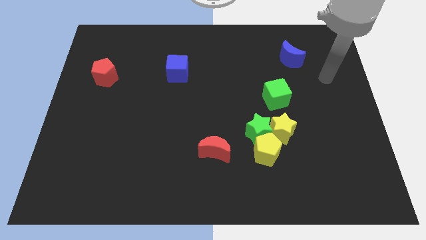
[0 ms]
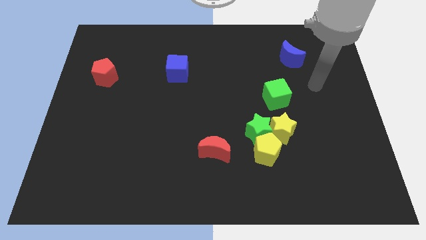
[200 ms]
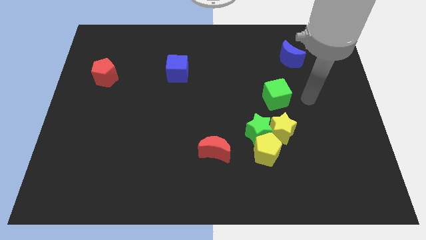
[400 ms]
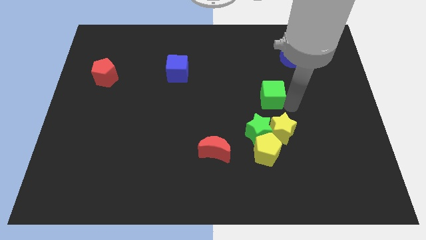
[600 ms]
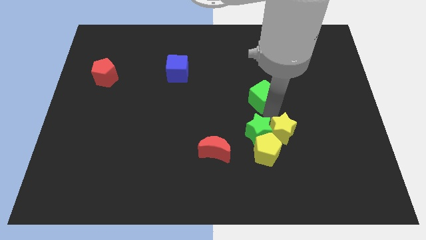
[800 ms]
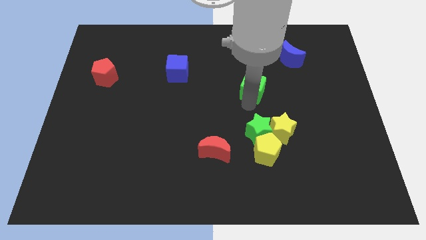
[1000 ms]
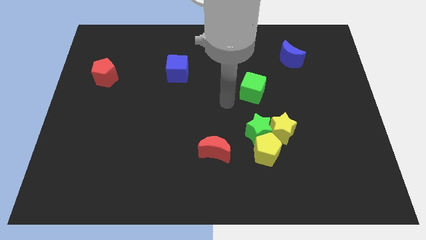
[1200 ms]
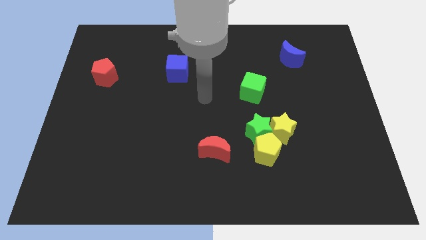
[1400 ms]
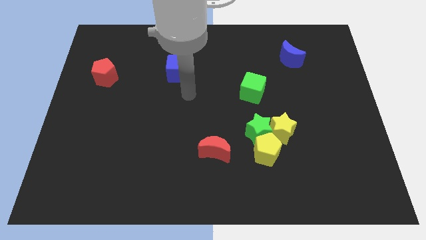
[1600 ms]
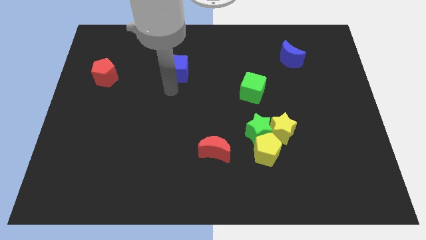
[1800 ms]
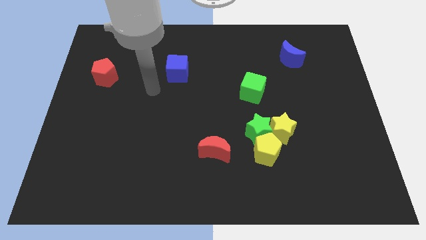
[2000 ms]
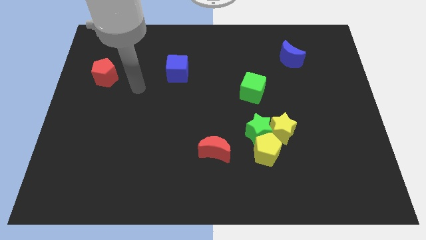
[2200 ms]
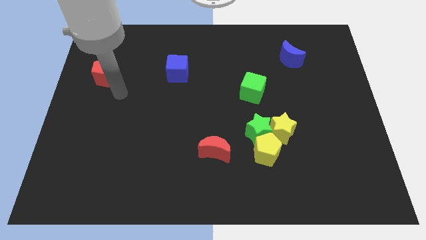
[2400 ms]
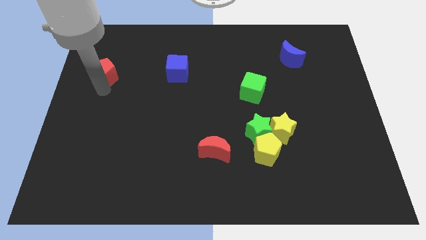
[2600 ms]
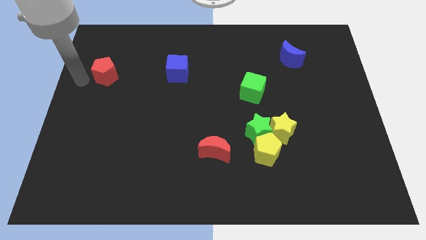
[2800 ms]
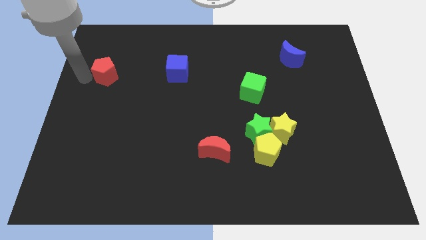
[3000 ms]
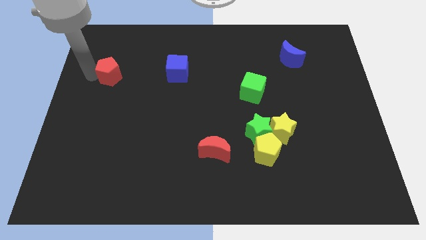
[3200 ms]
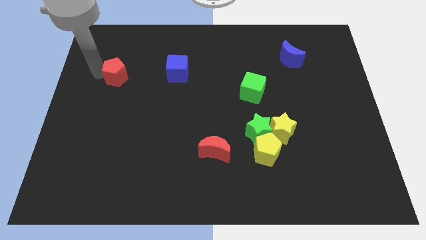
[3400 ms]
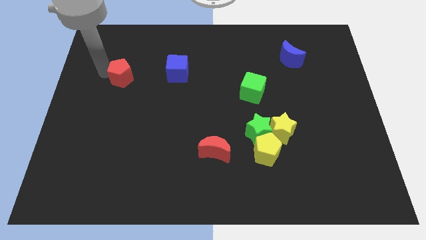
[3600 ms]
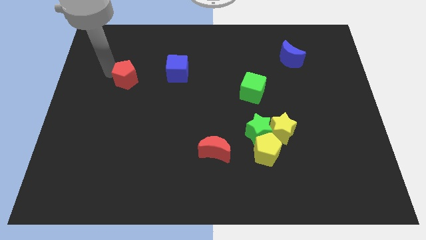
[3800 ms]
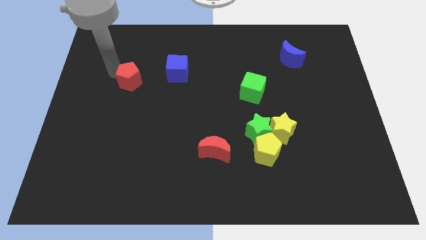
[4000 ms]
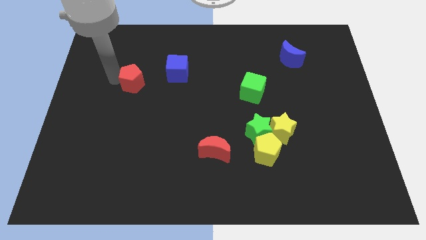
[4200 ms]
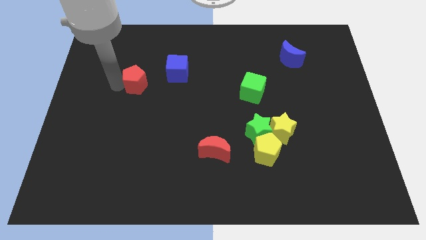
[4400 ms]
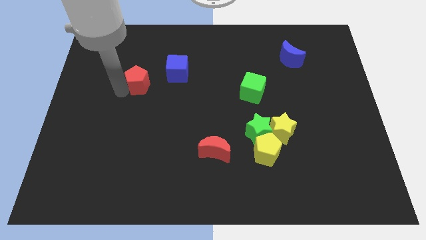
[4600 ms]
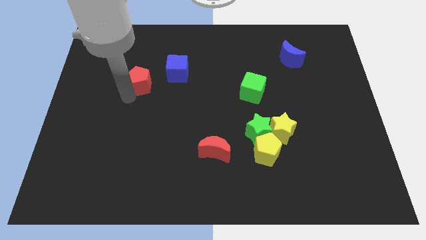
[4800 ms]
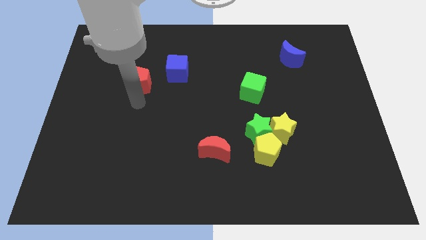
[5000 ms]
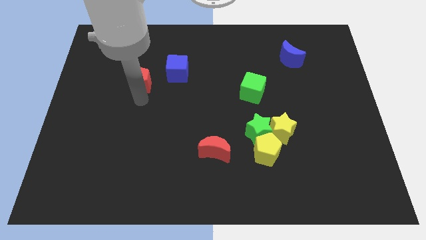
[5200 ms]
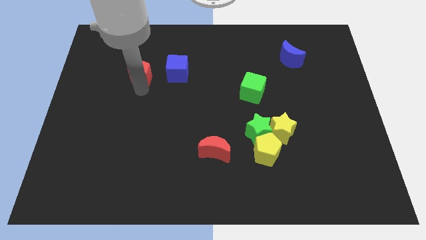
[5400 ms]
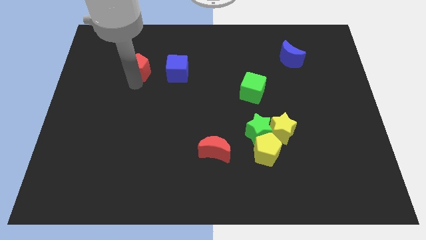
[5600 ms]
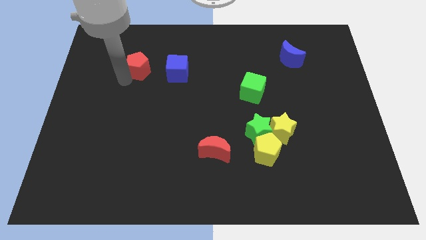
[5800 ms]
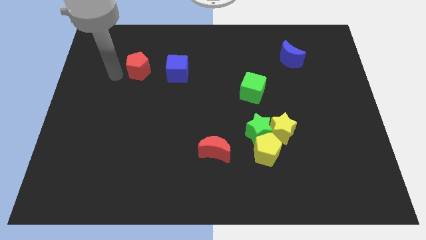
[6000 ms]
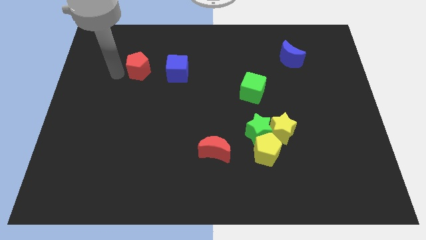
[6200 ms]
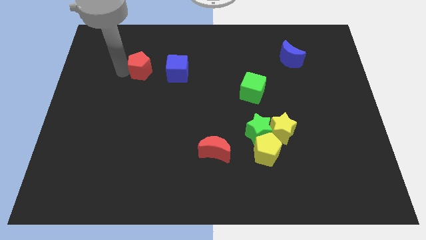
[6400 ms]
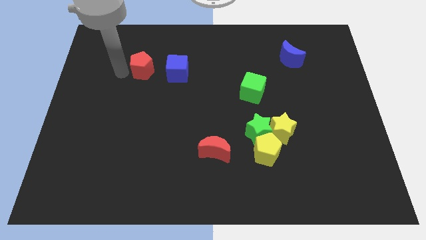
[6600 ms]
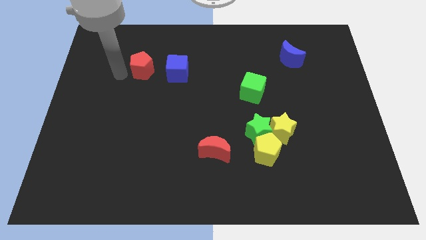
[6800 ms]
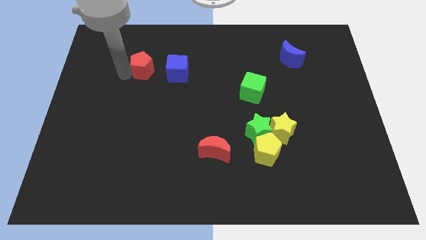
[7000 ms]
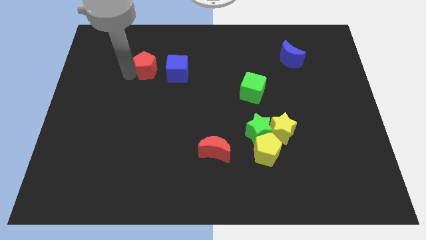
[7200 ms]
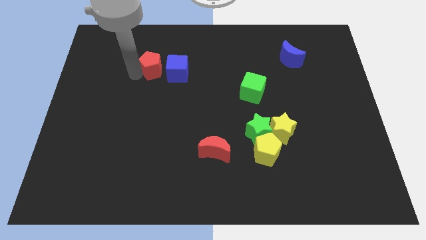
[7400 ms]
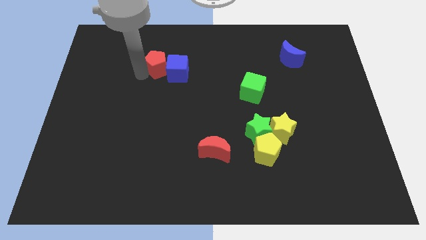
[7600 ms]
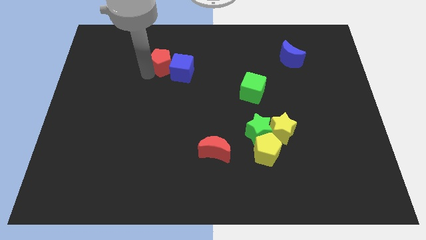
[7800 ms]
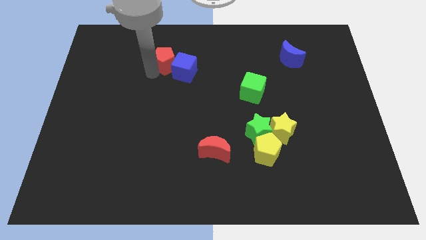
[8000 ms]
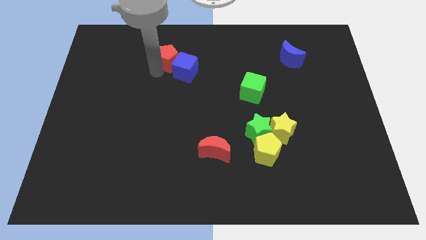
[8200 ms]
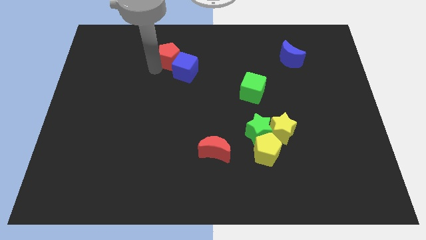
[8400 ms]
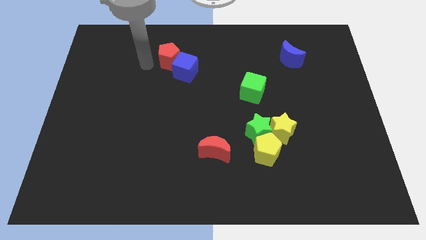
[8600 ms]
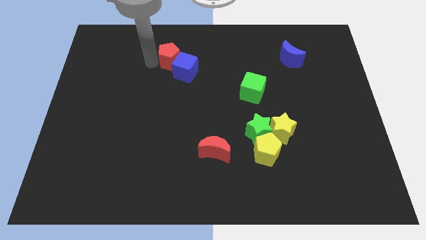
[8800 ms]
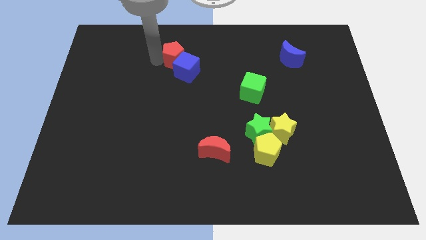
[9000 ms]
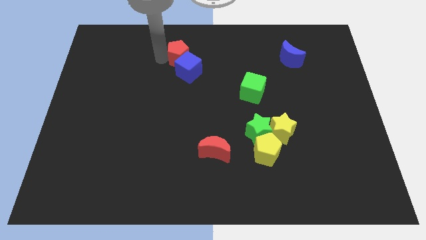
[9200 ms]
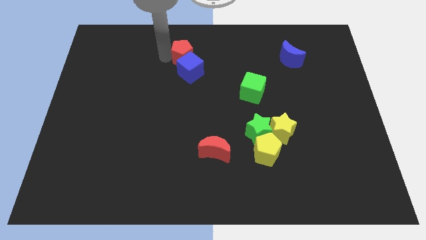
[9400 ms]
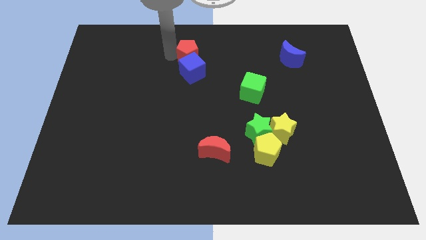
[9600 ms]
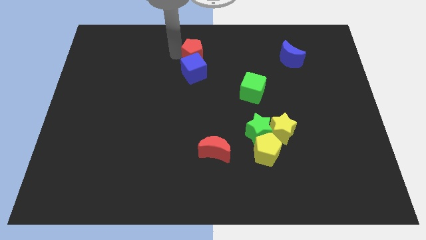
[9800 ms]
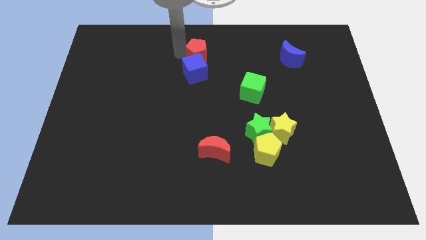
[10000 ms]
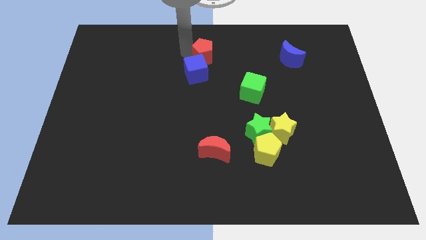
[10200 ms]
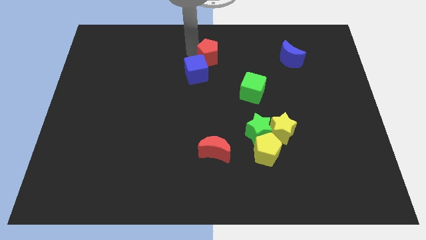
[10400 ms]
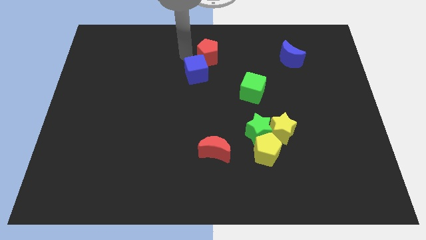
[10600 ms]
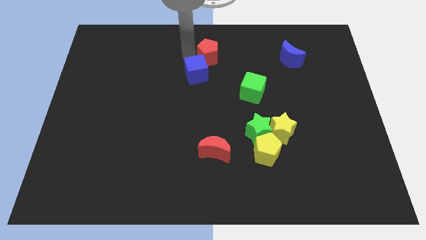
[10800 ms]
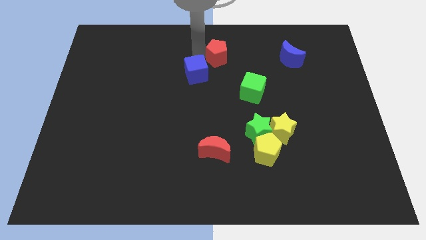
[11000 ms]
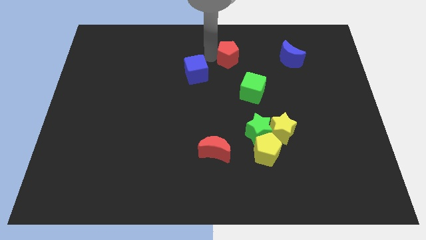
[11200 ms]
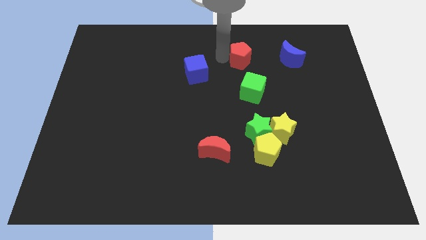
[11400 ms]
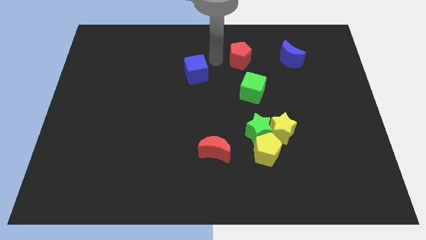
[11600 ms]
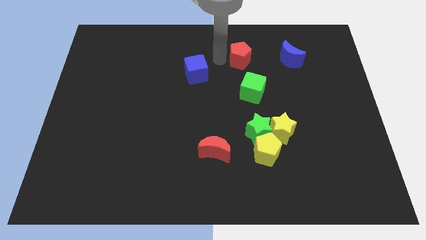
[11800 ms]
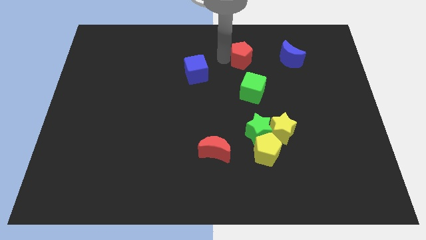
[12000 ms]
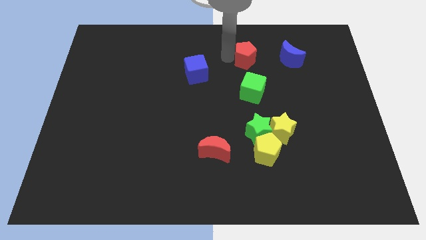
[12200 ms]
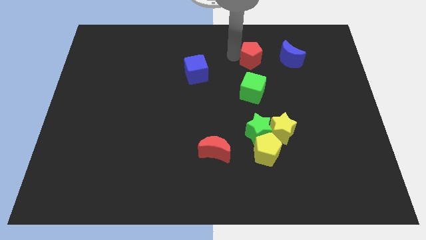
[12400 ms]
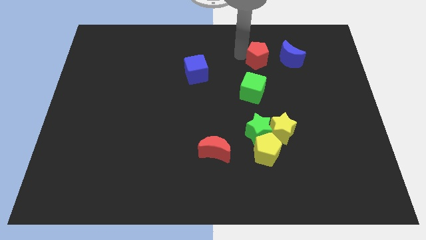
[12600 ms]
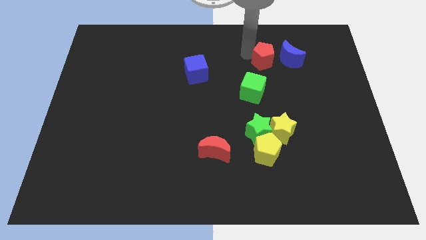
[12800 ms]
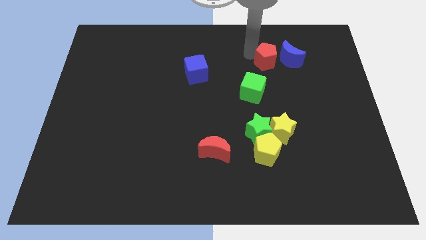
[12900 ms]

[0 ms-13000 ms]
put the red pentagon close to the blue moon
